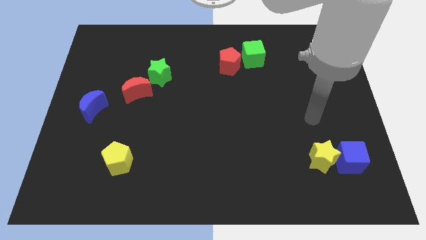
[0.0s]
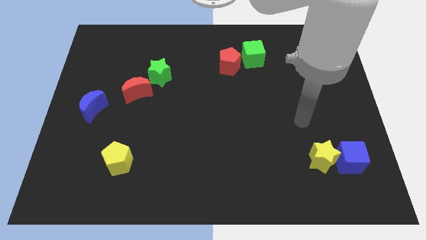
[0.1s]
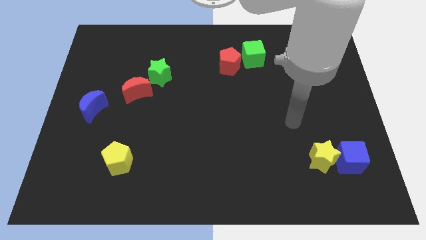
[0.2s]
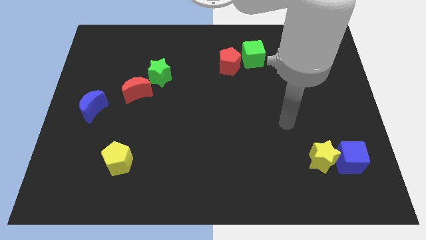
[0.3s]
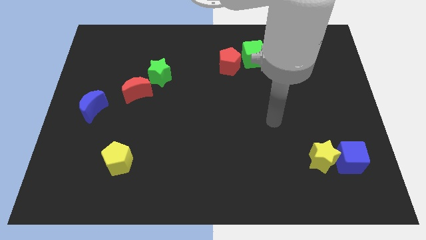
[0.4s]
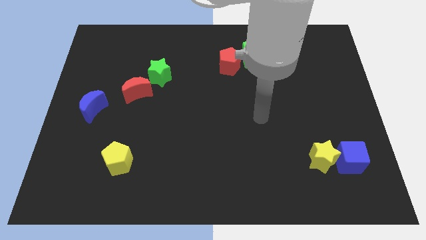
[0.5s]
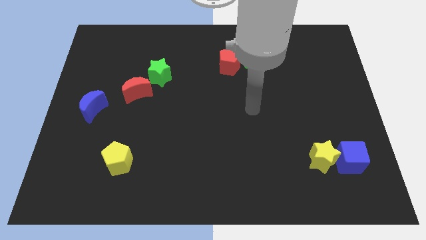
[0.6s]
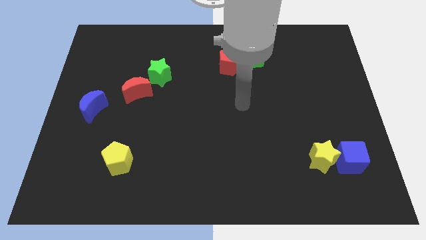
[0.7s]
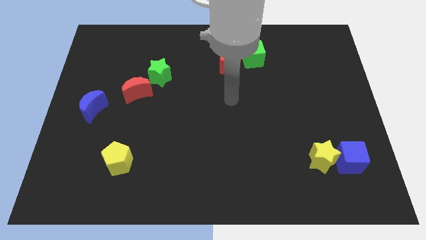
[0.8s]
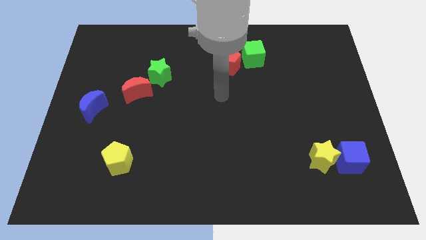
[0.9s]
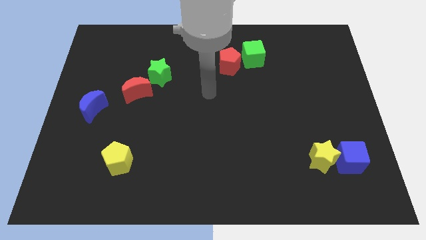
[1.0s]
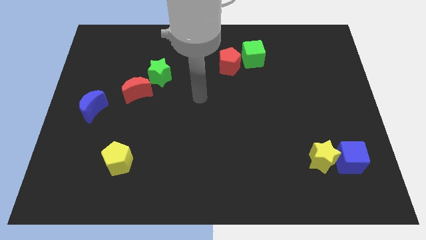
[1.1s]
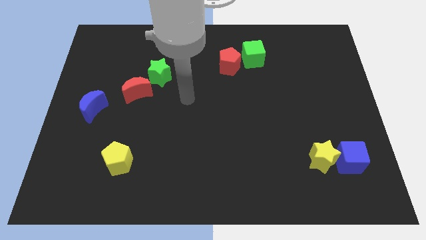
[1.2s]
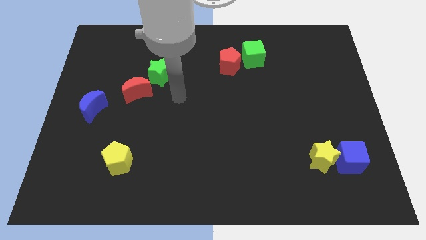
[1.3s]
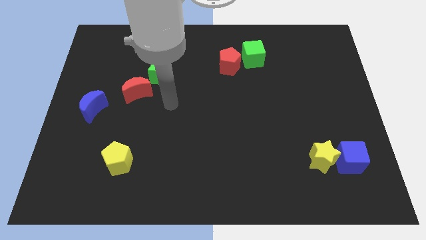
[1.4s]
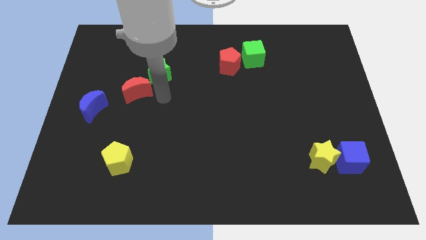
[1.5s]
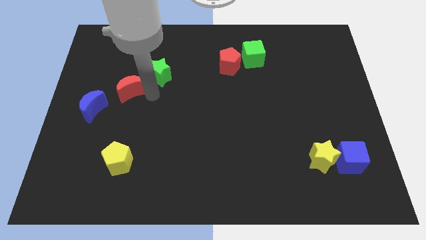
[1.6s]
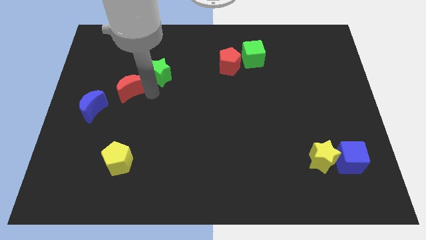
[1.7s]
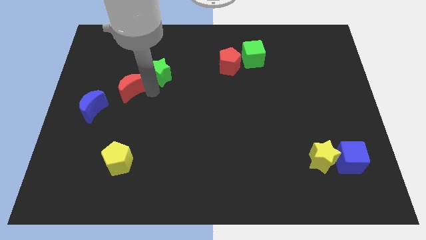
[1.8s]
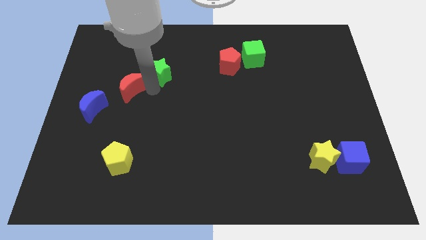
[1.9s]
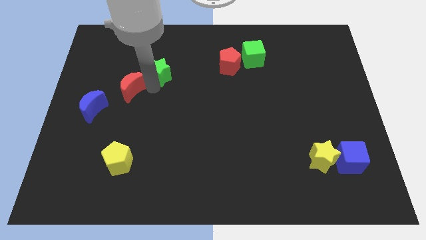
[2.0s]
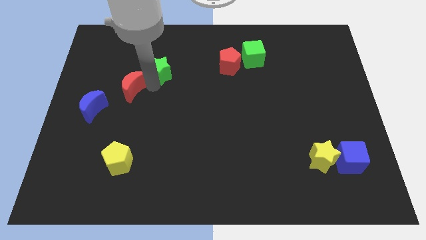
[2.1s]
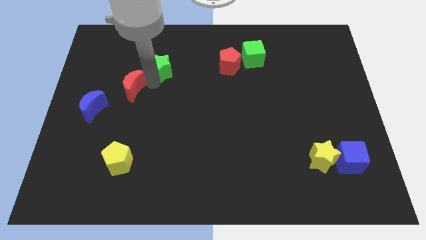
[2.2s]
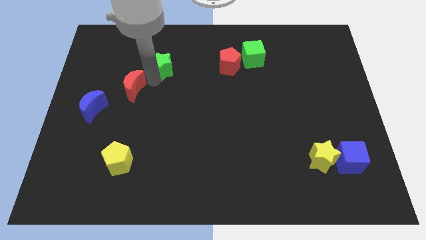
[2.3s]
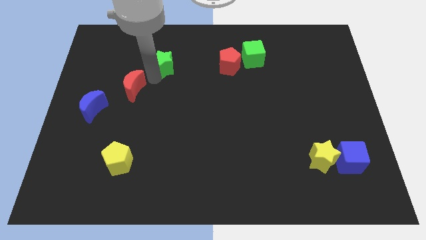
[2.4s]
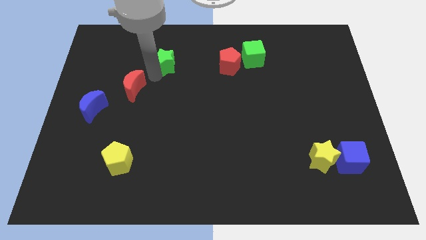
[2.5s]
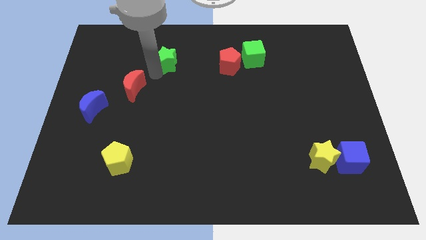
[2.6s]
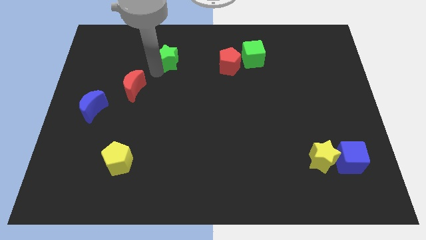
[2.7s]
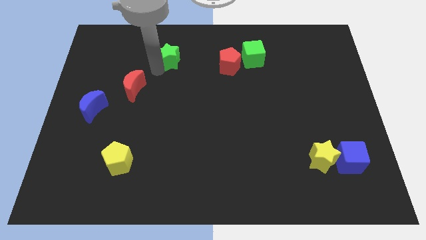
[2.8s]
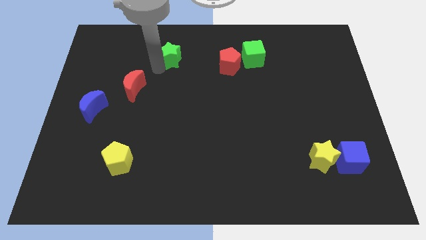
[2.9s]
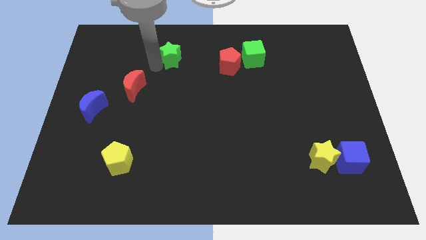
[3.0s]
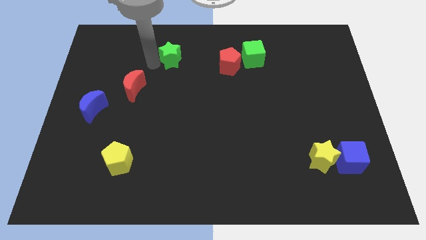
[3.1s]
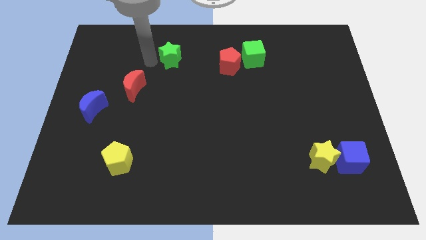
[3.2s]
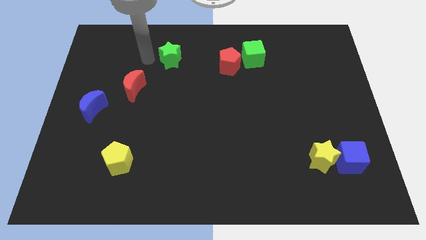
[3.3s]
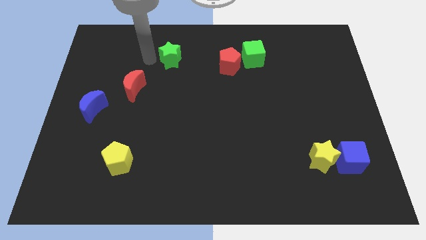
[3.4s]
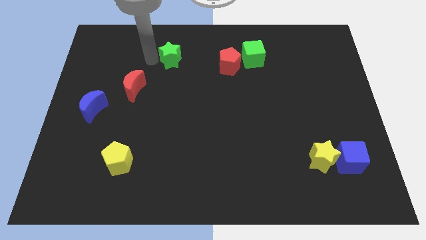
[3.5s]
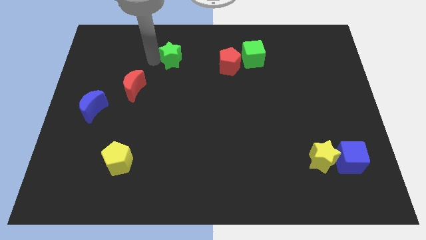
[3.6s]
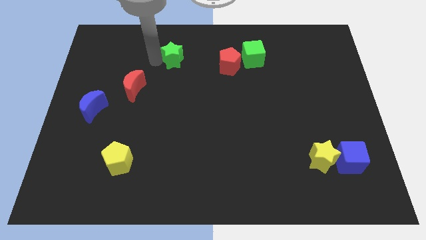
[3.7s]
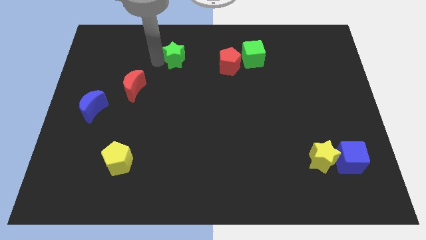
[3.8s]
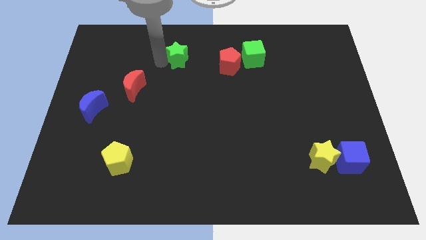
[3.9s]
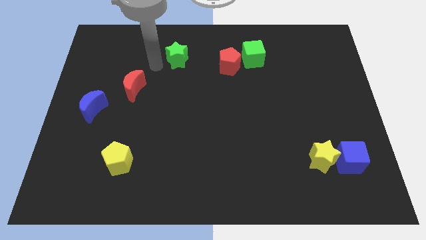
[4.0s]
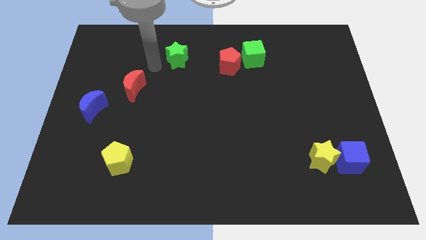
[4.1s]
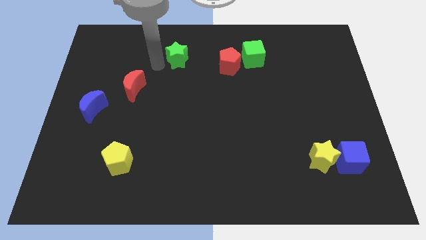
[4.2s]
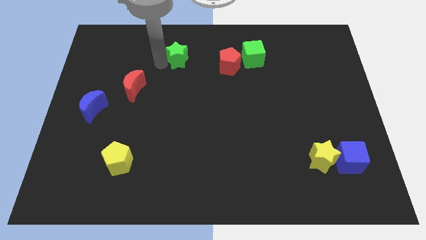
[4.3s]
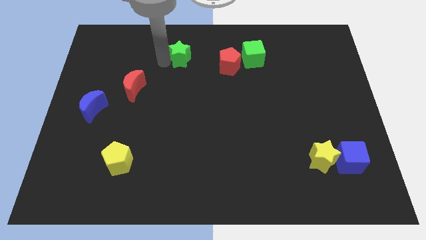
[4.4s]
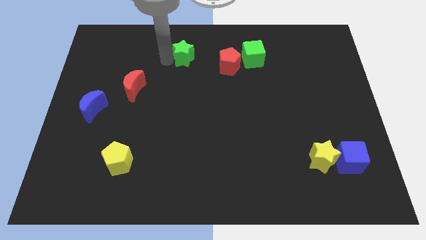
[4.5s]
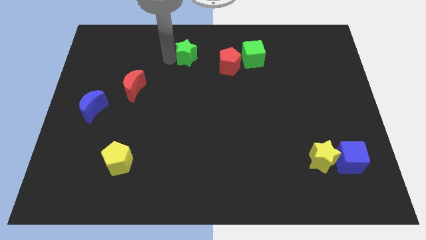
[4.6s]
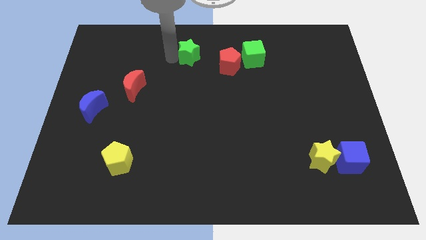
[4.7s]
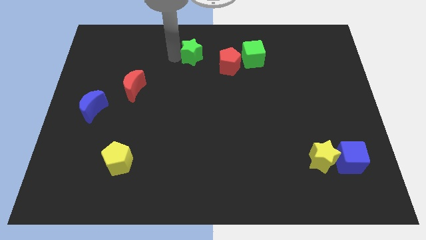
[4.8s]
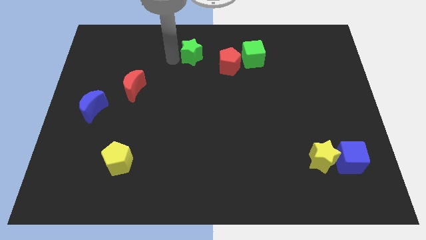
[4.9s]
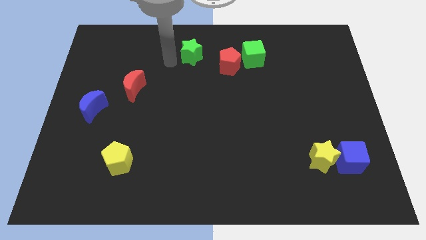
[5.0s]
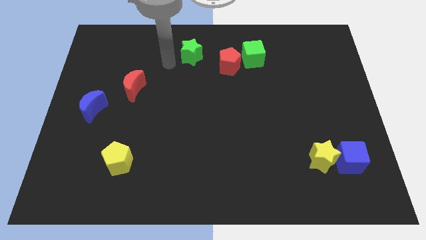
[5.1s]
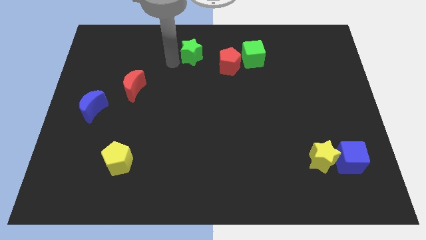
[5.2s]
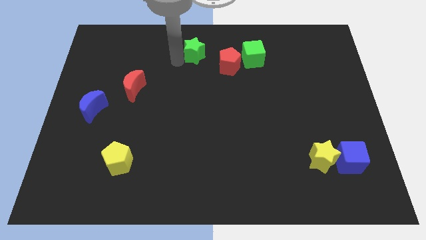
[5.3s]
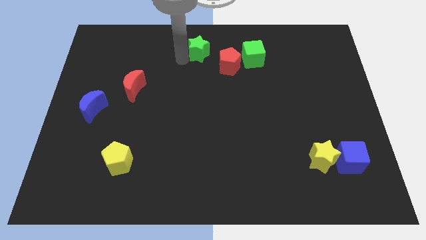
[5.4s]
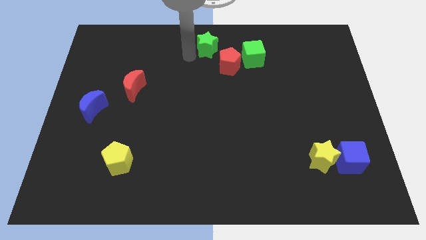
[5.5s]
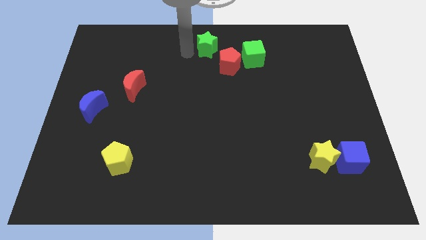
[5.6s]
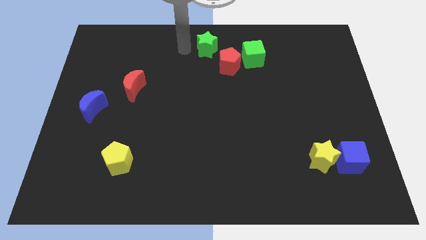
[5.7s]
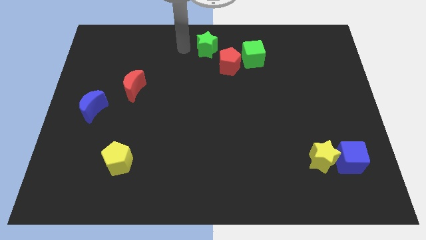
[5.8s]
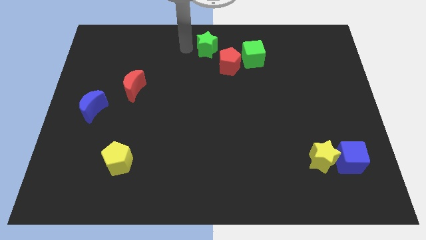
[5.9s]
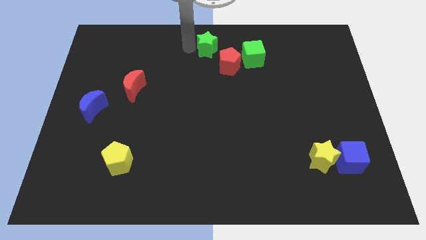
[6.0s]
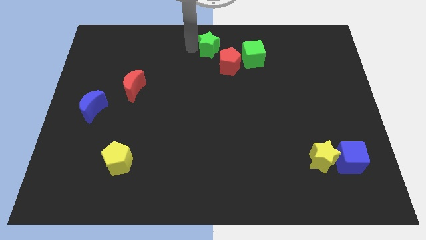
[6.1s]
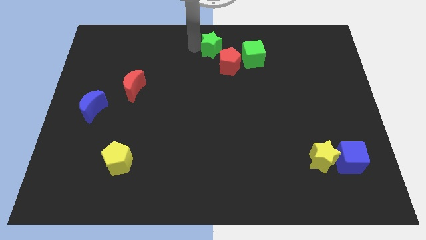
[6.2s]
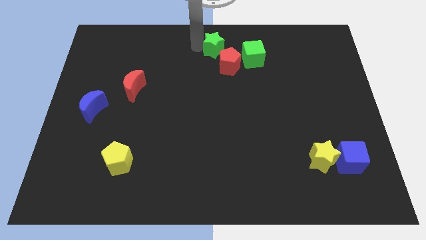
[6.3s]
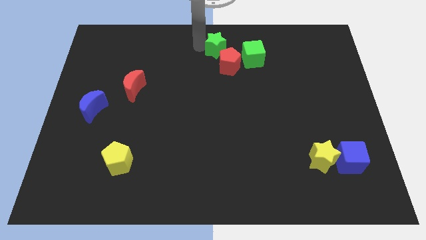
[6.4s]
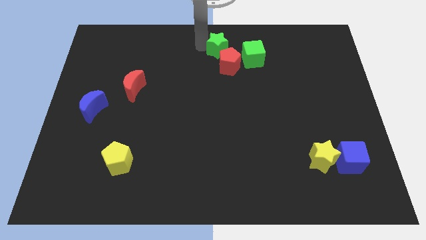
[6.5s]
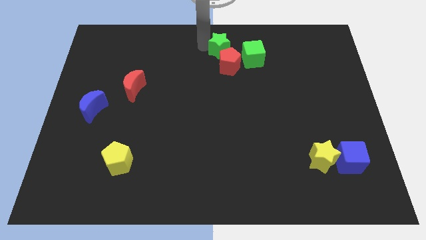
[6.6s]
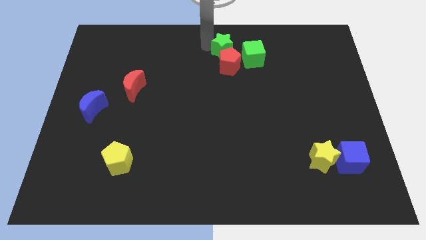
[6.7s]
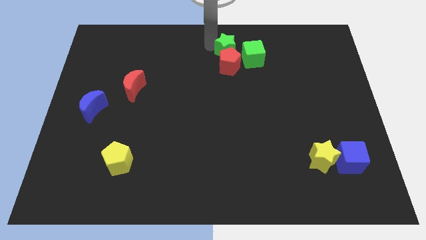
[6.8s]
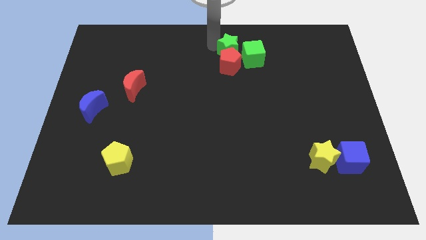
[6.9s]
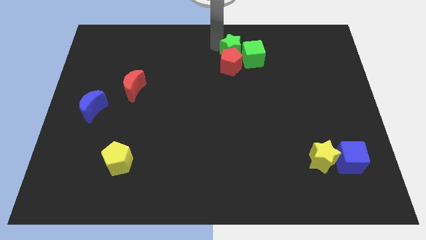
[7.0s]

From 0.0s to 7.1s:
put the green star towards the green cube

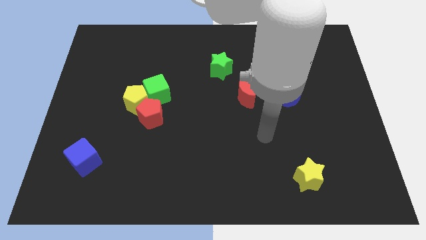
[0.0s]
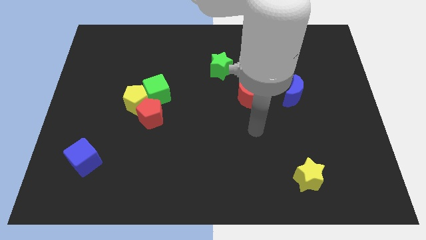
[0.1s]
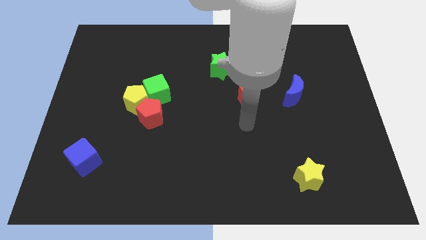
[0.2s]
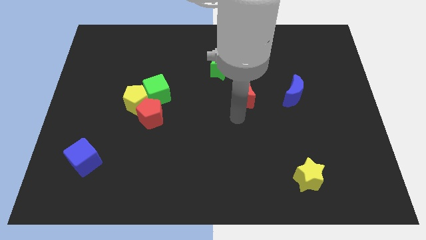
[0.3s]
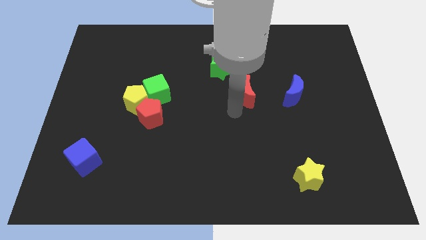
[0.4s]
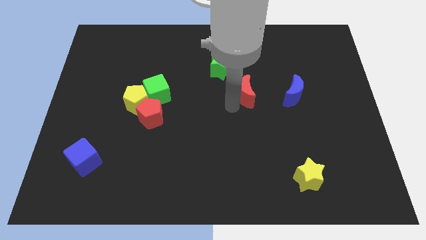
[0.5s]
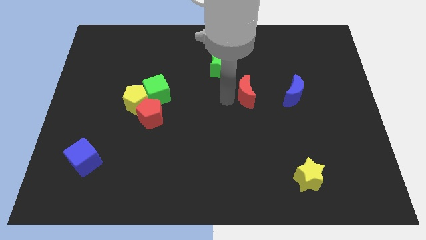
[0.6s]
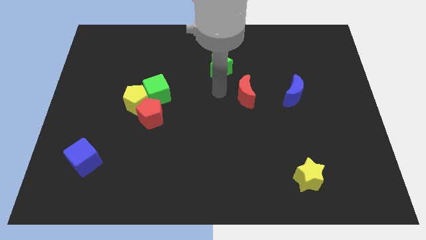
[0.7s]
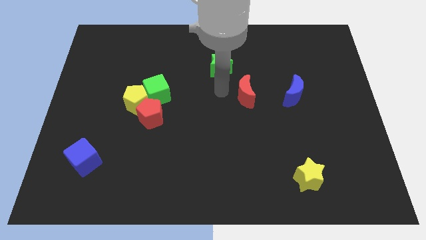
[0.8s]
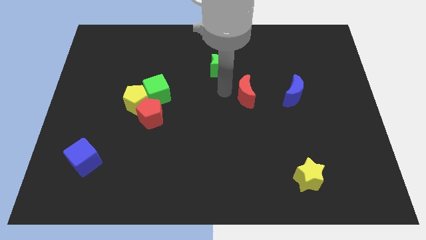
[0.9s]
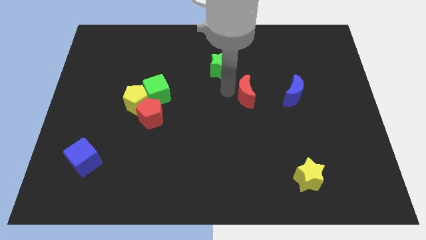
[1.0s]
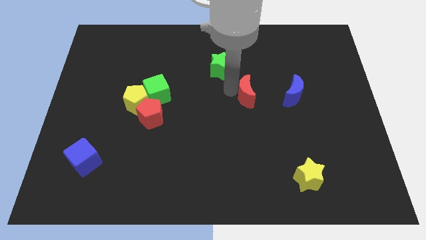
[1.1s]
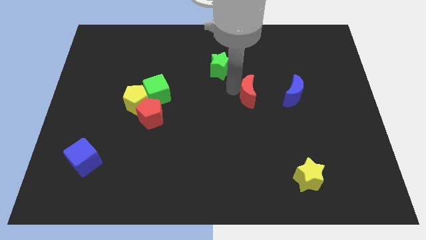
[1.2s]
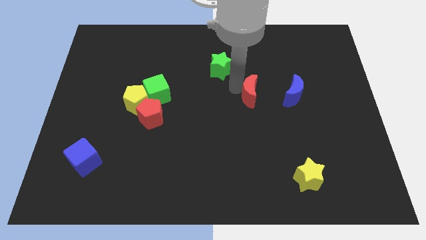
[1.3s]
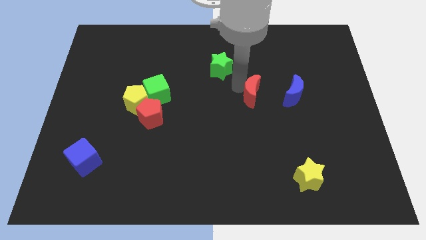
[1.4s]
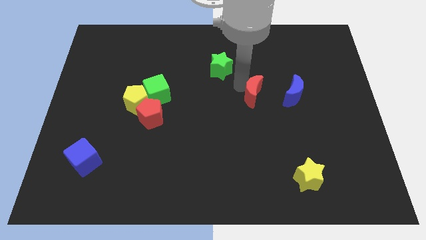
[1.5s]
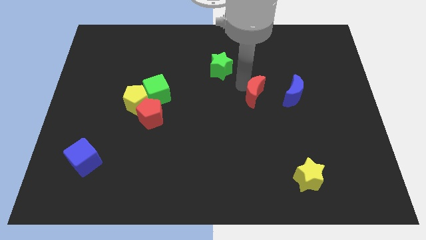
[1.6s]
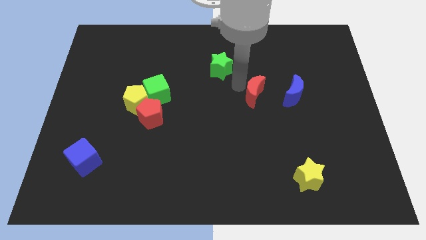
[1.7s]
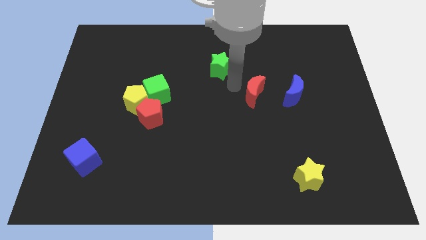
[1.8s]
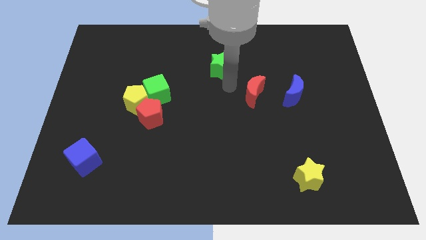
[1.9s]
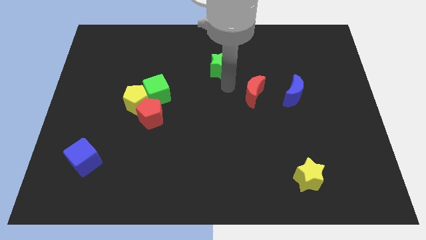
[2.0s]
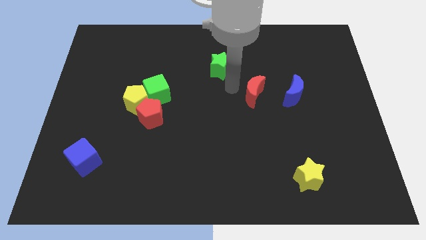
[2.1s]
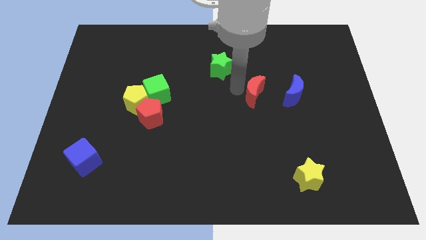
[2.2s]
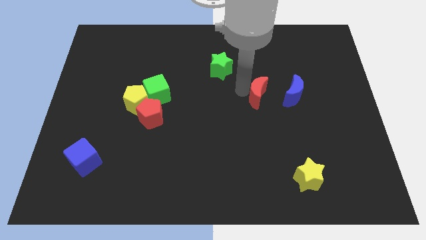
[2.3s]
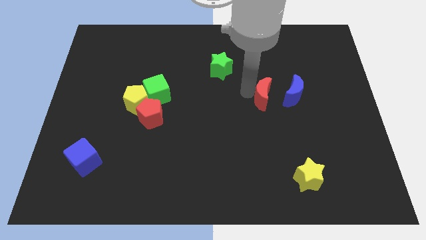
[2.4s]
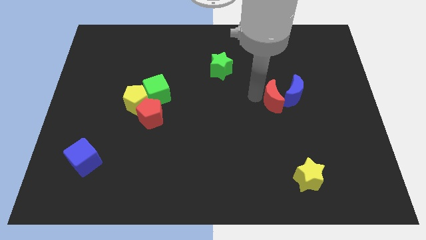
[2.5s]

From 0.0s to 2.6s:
push the red moon to the blue moon
